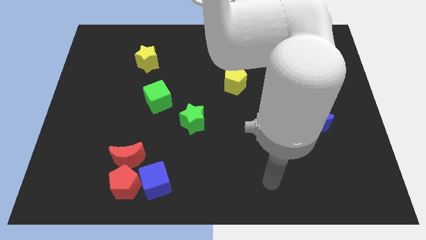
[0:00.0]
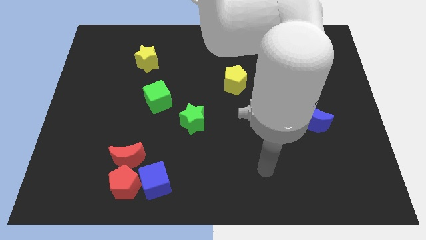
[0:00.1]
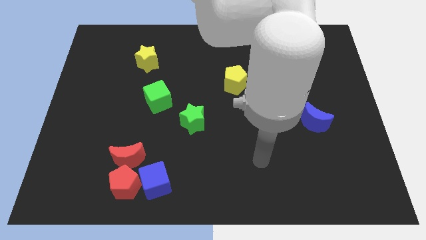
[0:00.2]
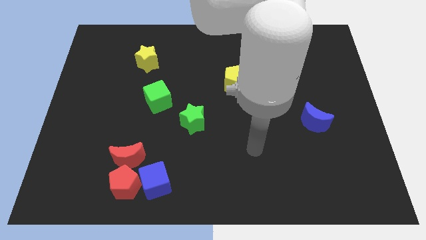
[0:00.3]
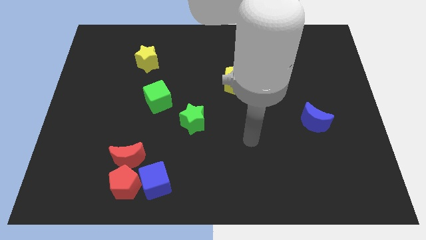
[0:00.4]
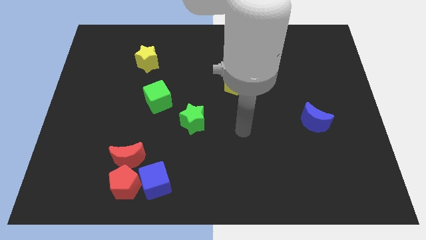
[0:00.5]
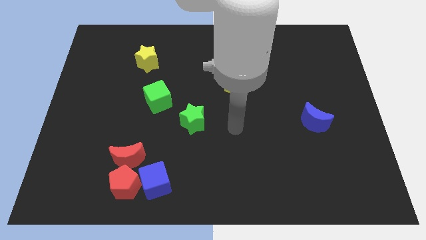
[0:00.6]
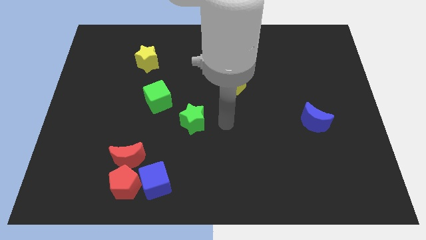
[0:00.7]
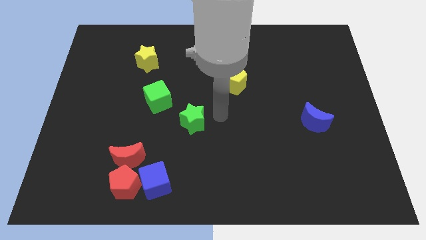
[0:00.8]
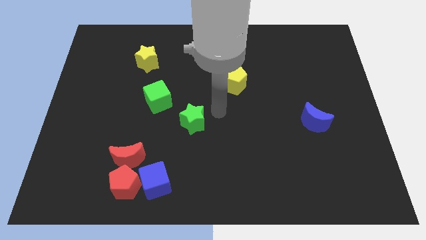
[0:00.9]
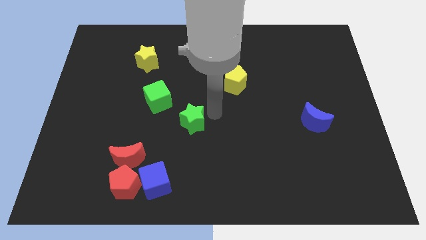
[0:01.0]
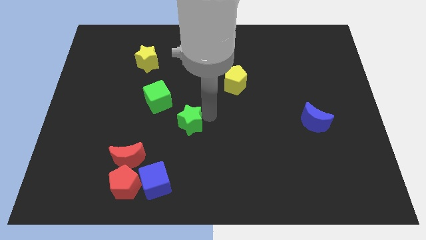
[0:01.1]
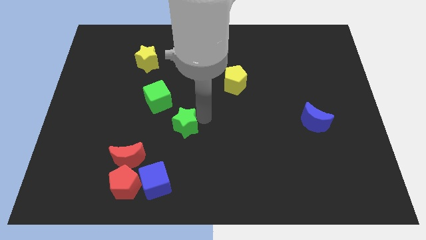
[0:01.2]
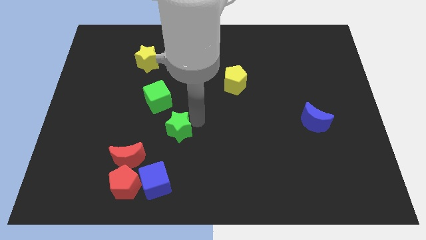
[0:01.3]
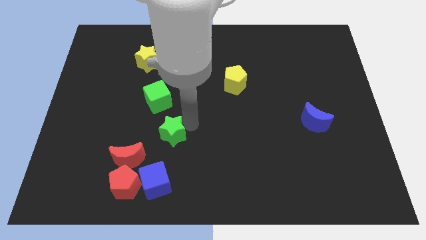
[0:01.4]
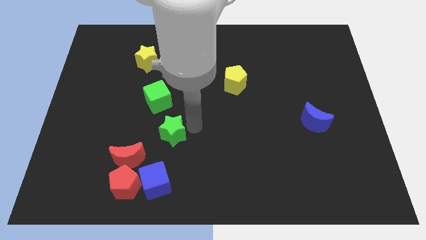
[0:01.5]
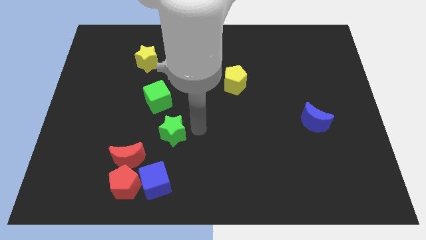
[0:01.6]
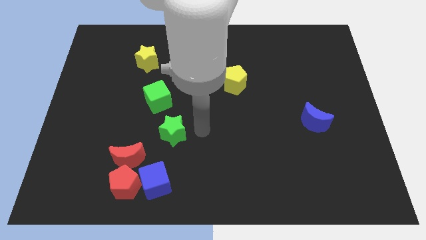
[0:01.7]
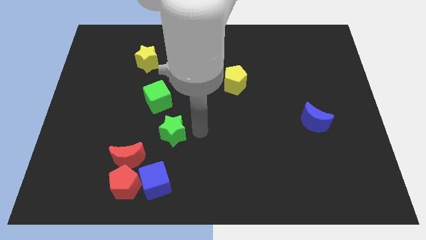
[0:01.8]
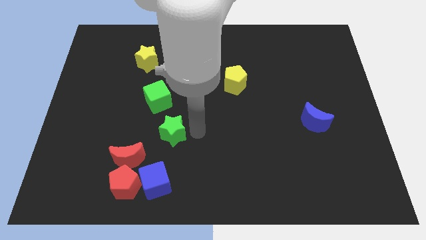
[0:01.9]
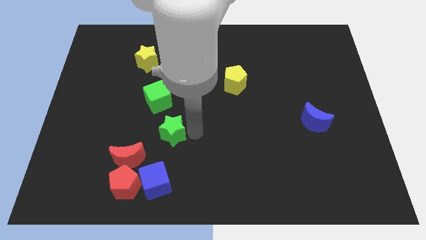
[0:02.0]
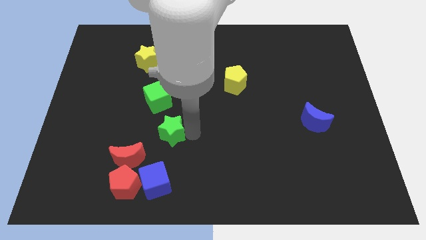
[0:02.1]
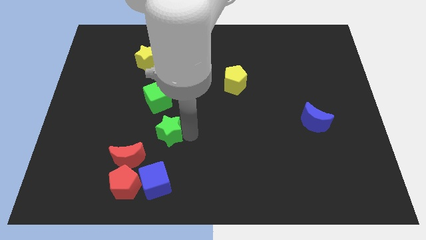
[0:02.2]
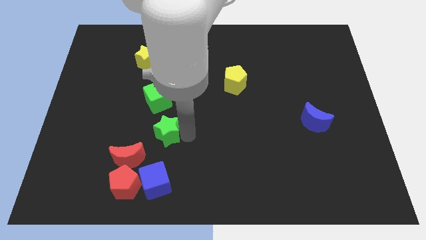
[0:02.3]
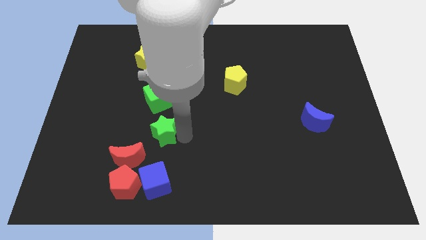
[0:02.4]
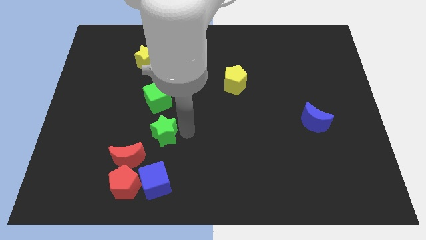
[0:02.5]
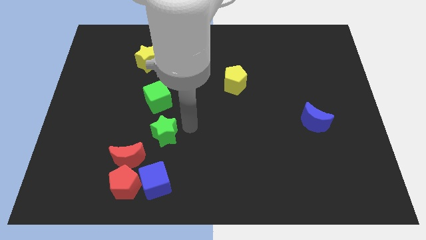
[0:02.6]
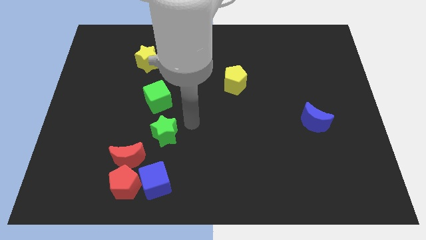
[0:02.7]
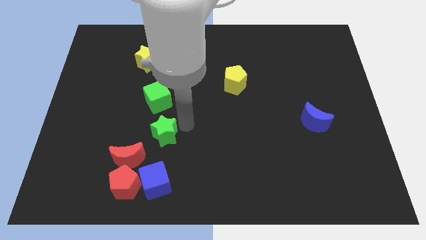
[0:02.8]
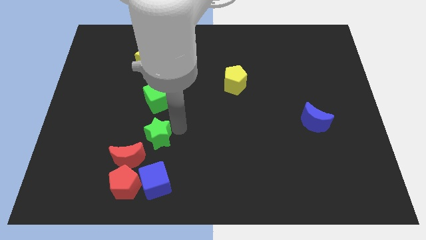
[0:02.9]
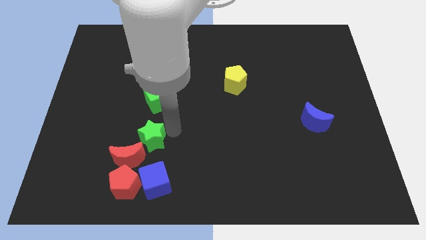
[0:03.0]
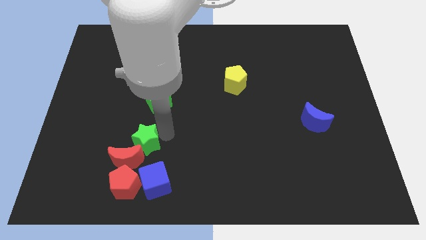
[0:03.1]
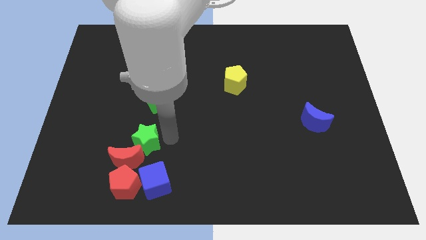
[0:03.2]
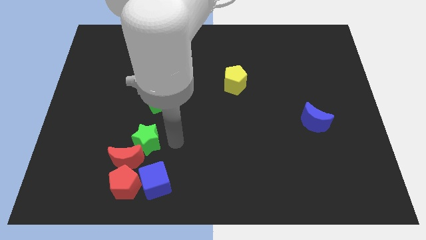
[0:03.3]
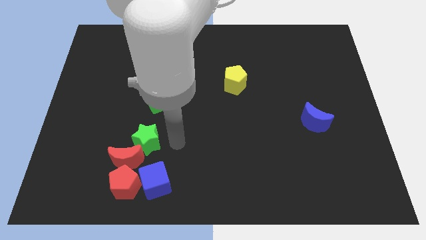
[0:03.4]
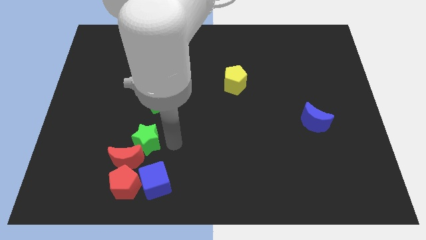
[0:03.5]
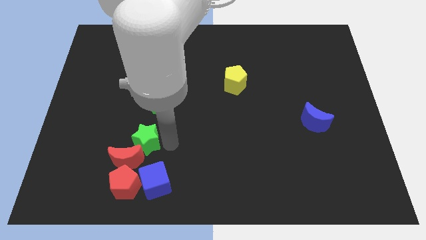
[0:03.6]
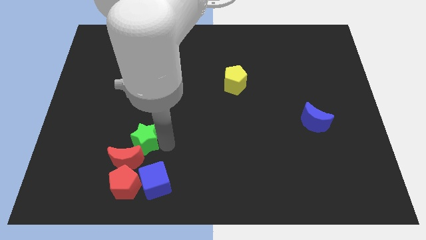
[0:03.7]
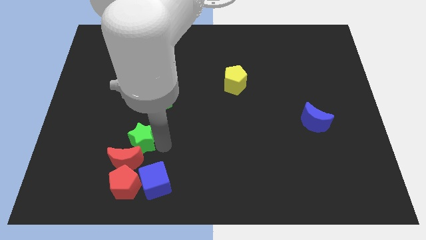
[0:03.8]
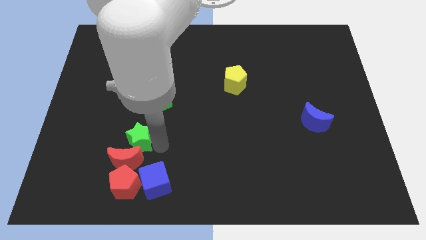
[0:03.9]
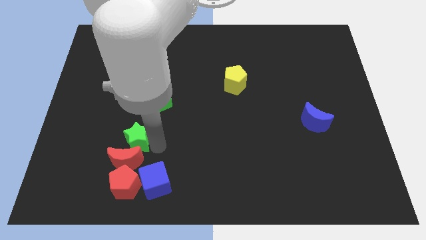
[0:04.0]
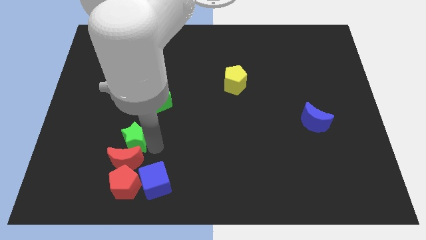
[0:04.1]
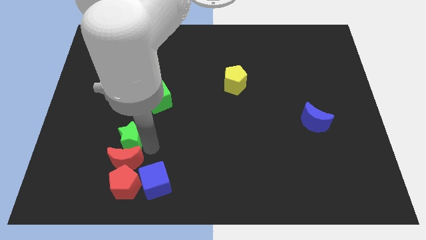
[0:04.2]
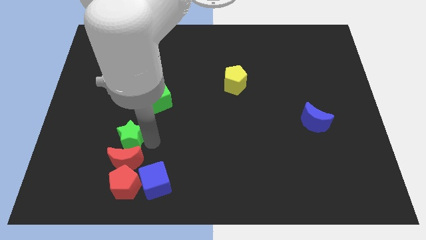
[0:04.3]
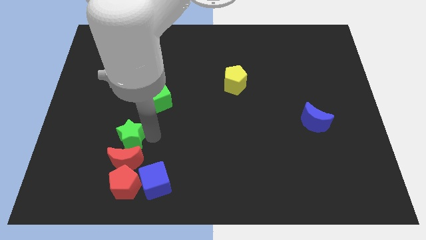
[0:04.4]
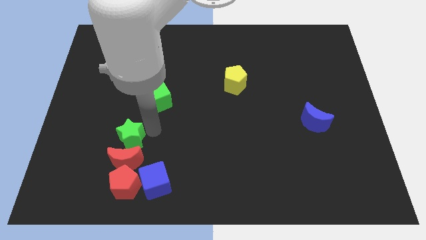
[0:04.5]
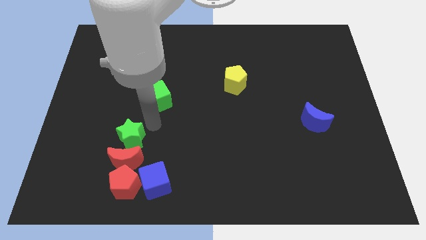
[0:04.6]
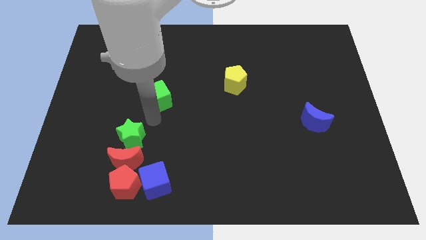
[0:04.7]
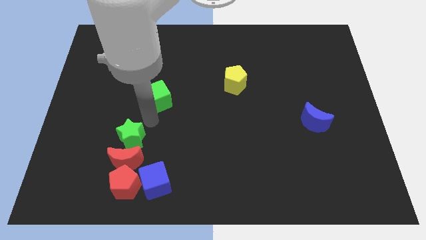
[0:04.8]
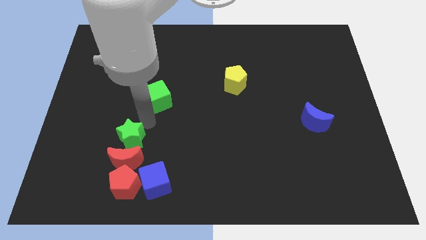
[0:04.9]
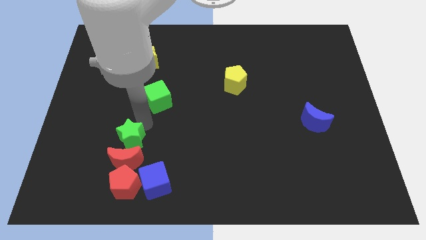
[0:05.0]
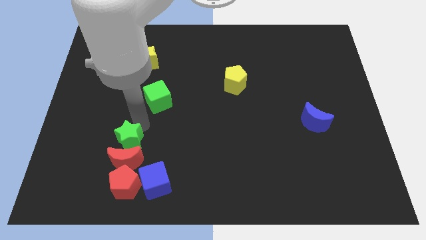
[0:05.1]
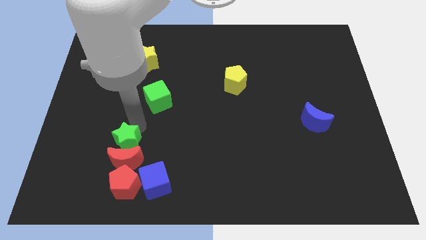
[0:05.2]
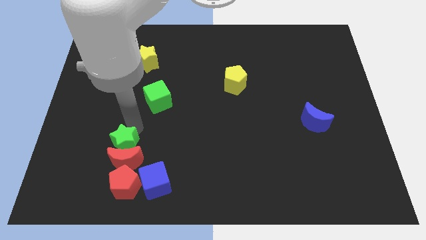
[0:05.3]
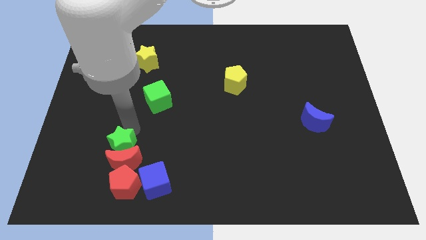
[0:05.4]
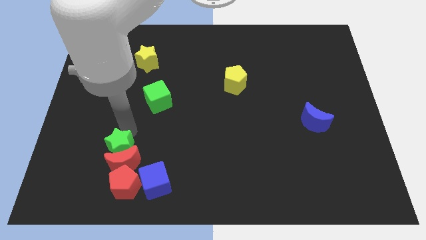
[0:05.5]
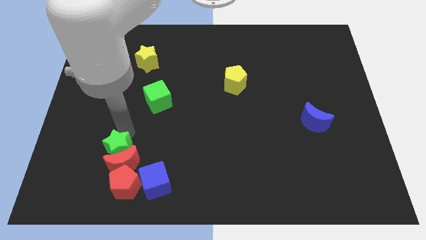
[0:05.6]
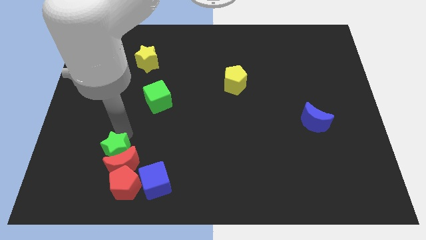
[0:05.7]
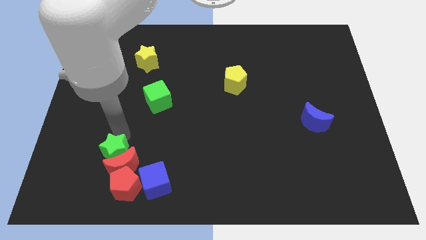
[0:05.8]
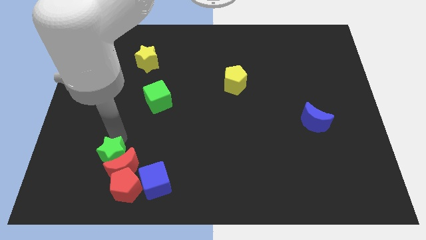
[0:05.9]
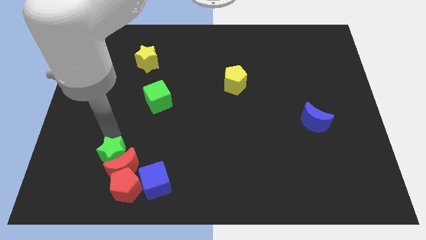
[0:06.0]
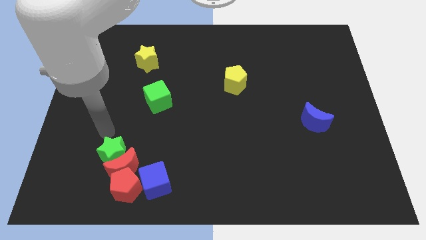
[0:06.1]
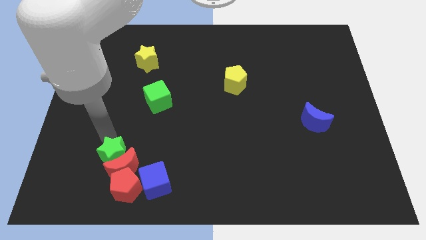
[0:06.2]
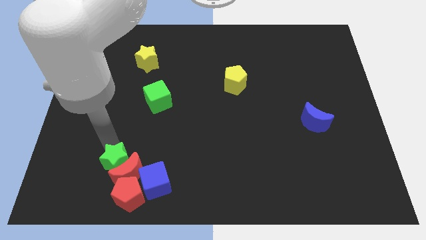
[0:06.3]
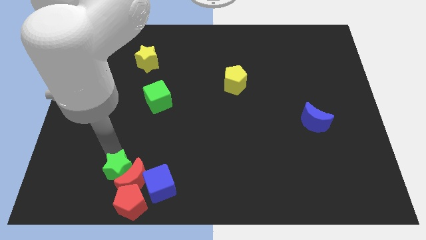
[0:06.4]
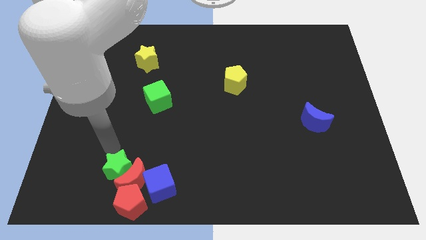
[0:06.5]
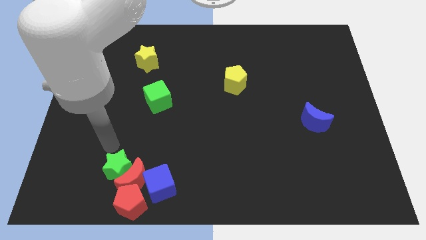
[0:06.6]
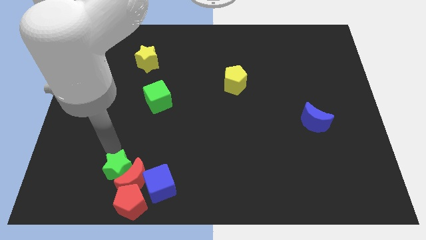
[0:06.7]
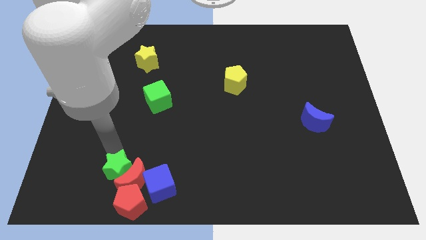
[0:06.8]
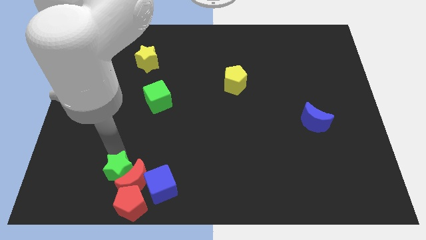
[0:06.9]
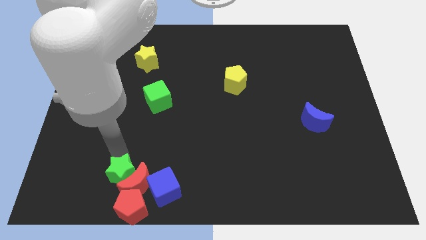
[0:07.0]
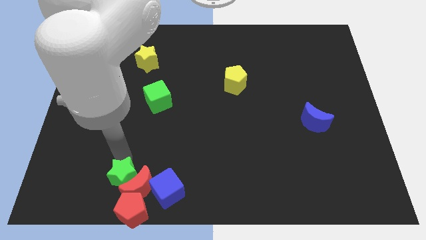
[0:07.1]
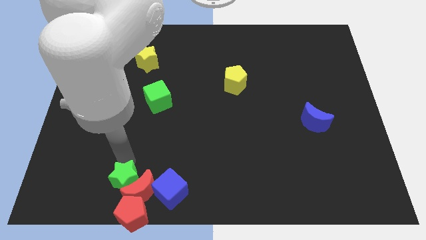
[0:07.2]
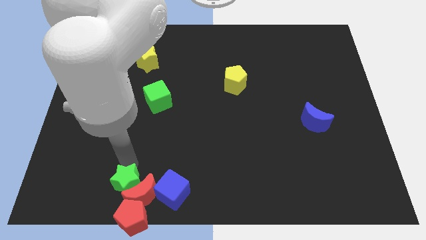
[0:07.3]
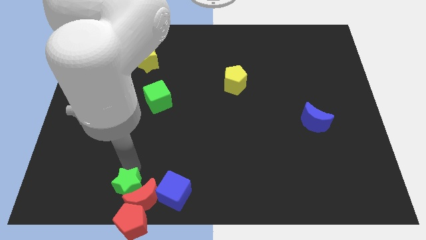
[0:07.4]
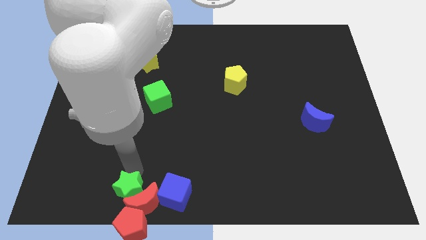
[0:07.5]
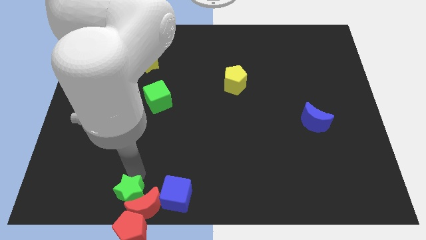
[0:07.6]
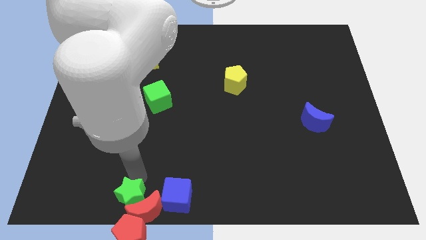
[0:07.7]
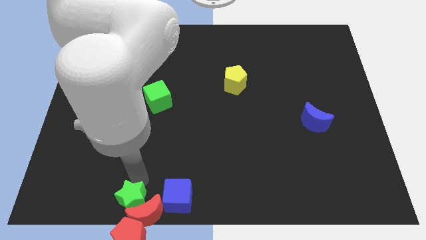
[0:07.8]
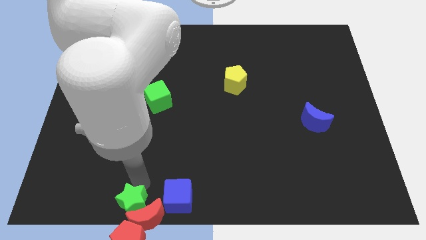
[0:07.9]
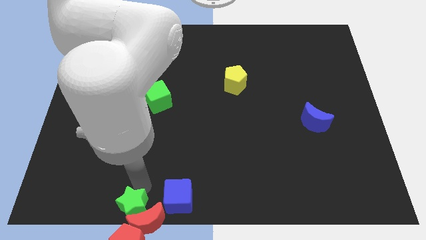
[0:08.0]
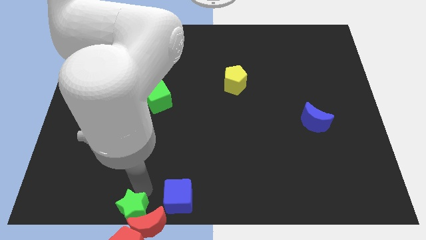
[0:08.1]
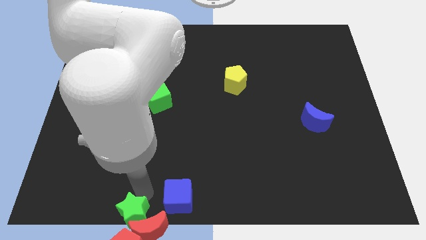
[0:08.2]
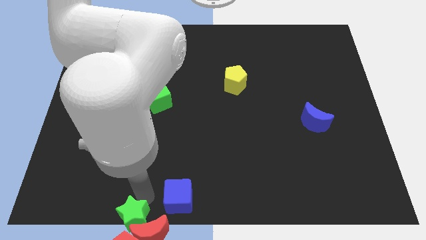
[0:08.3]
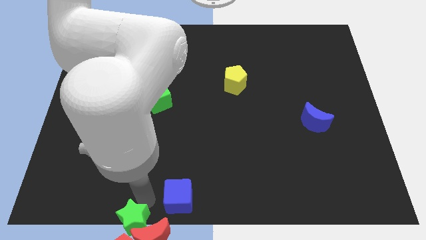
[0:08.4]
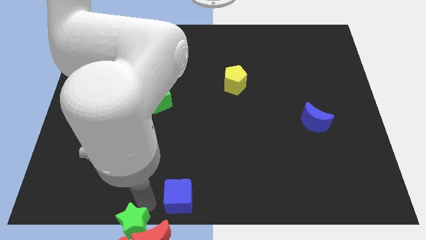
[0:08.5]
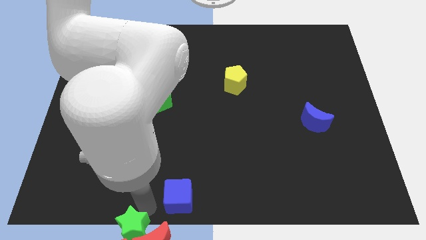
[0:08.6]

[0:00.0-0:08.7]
move the green star to the red pentagon
